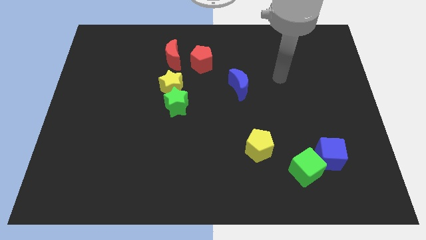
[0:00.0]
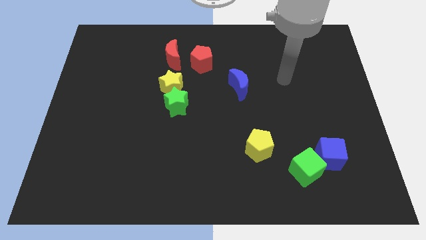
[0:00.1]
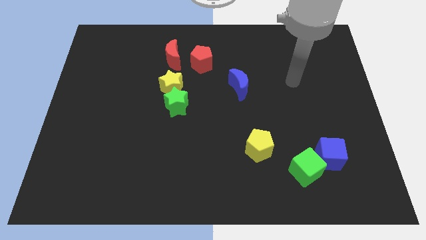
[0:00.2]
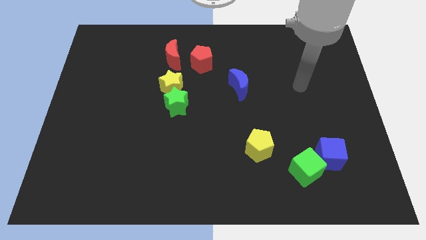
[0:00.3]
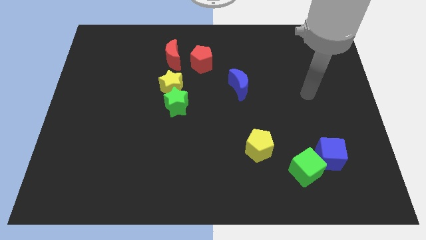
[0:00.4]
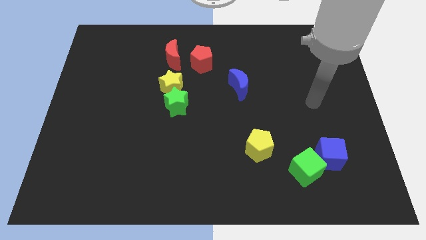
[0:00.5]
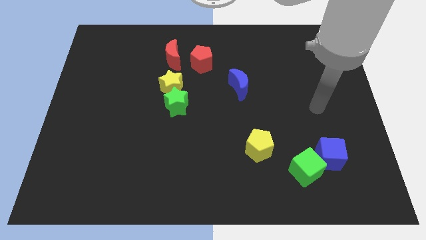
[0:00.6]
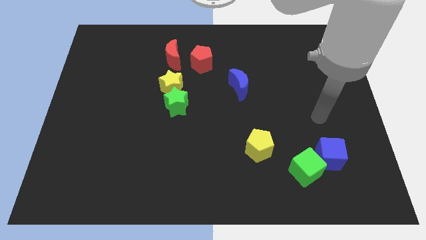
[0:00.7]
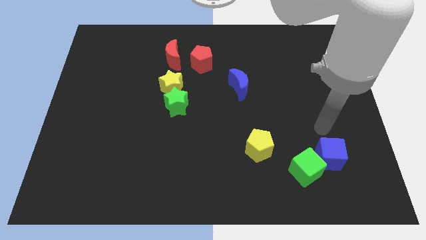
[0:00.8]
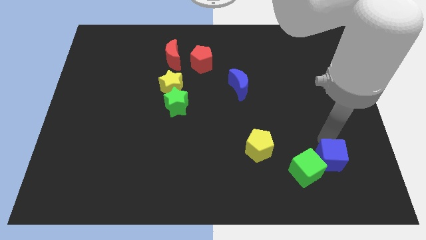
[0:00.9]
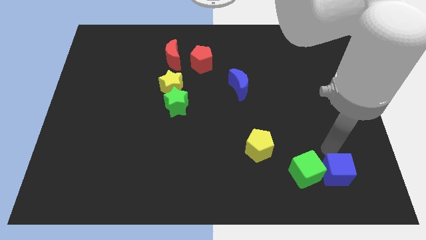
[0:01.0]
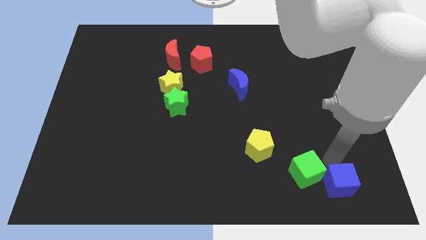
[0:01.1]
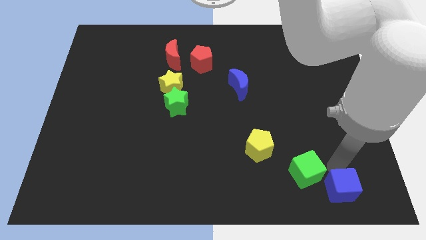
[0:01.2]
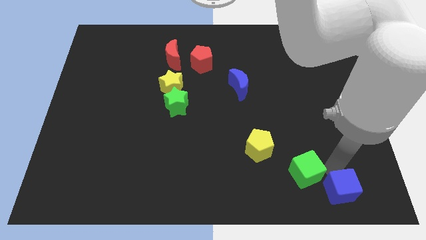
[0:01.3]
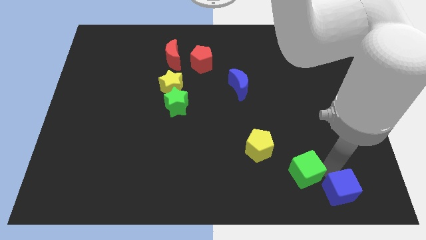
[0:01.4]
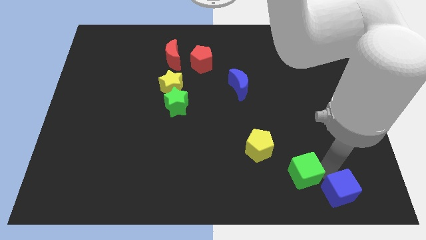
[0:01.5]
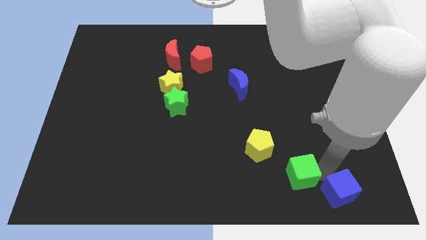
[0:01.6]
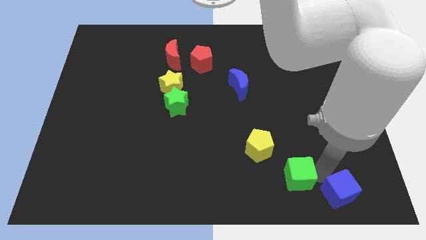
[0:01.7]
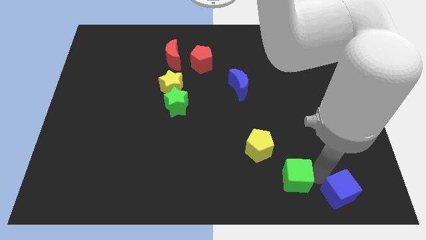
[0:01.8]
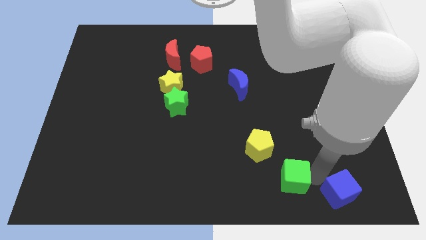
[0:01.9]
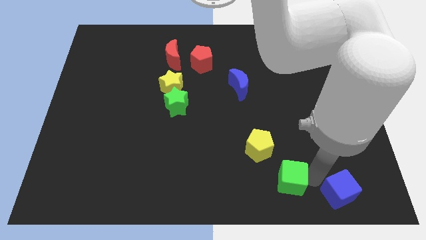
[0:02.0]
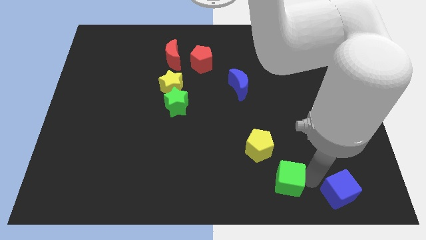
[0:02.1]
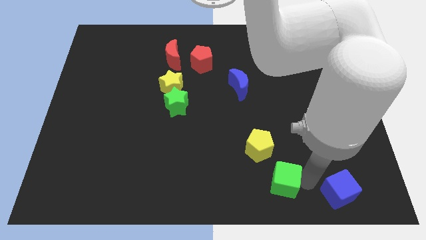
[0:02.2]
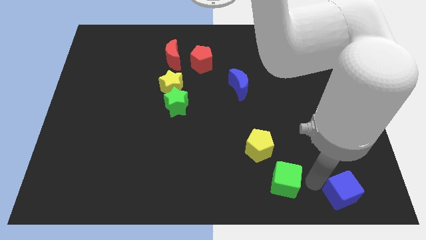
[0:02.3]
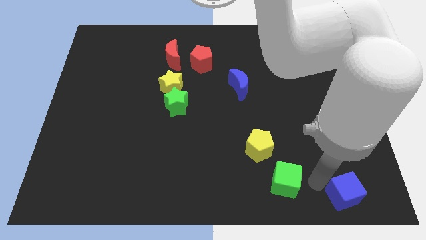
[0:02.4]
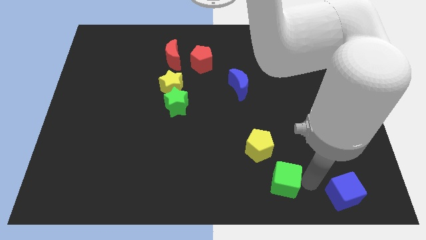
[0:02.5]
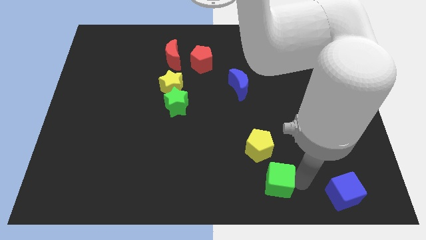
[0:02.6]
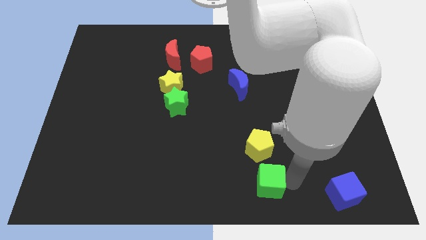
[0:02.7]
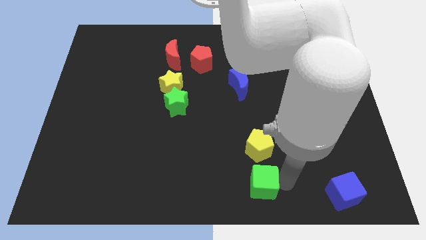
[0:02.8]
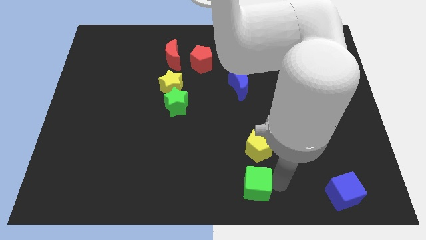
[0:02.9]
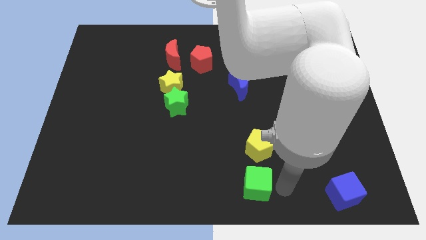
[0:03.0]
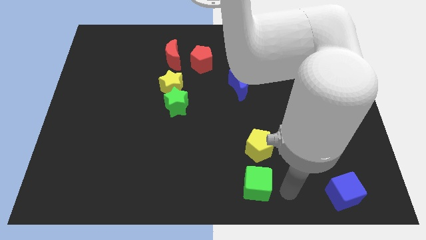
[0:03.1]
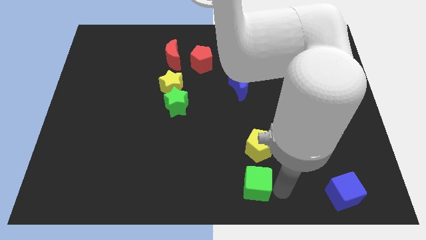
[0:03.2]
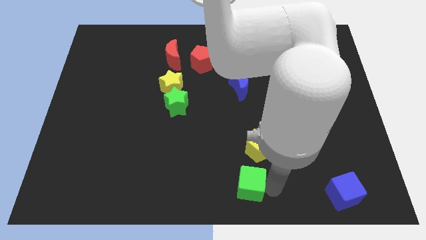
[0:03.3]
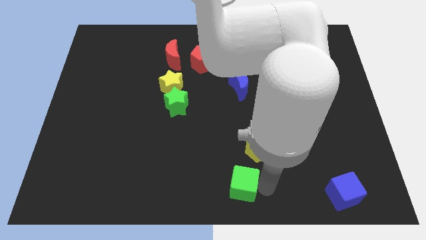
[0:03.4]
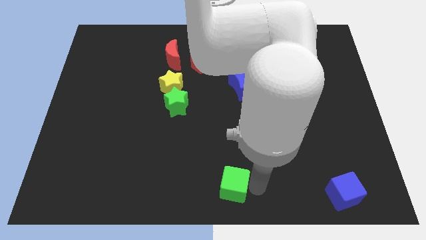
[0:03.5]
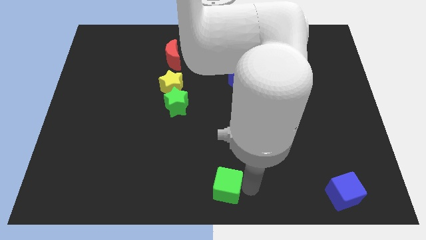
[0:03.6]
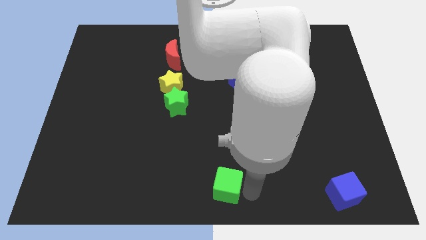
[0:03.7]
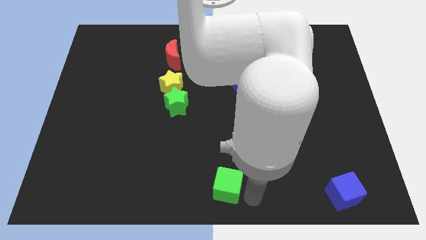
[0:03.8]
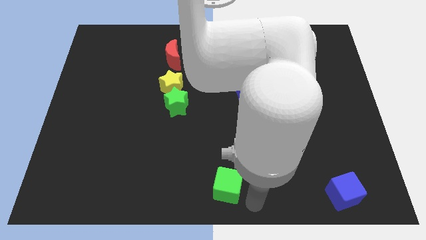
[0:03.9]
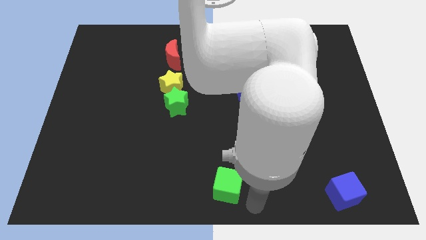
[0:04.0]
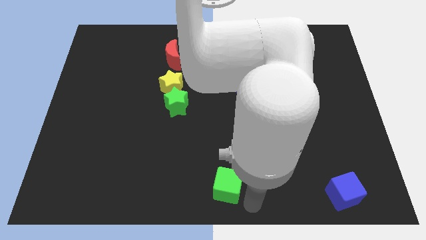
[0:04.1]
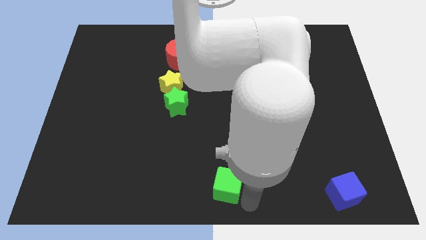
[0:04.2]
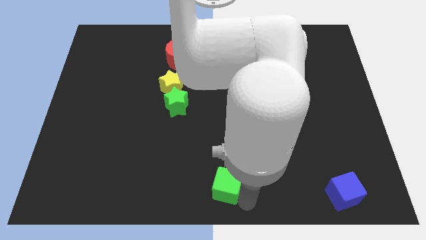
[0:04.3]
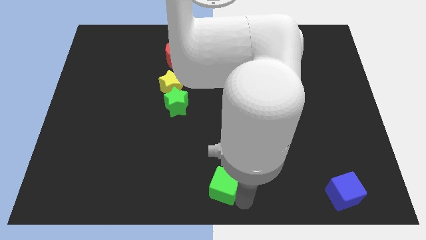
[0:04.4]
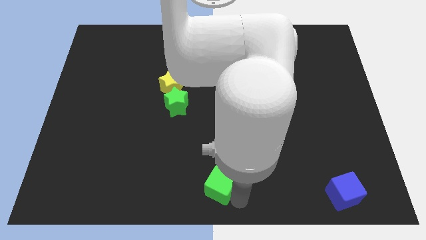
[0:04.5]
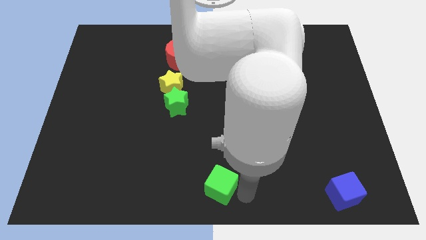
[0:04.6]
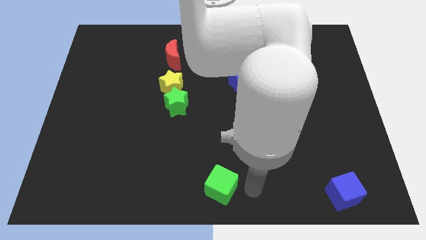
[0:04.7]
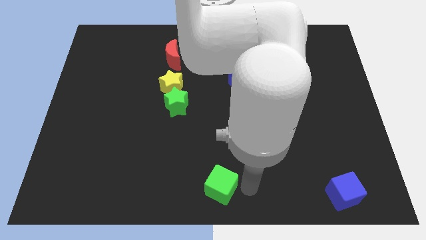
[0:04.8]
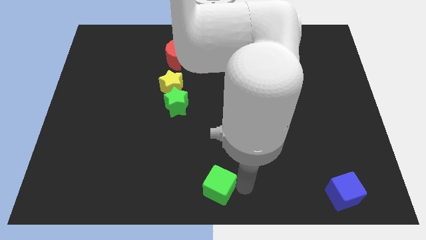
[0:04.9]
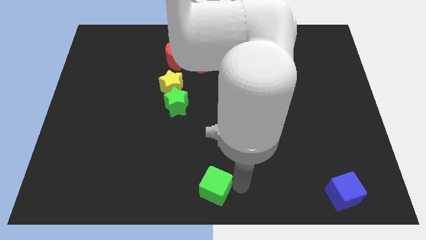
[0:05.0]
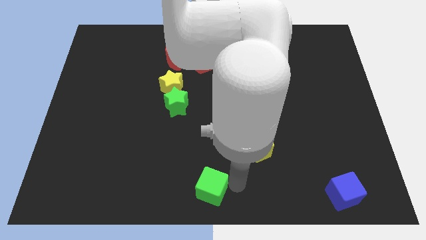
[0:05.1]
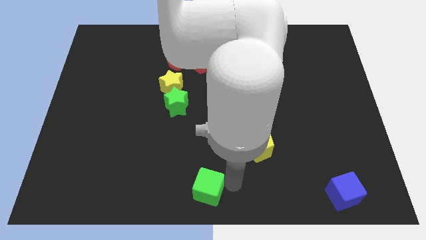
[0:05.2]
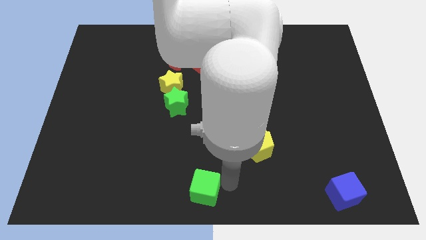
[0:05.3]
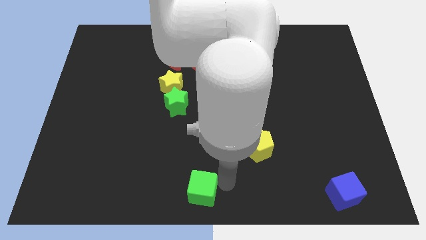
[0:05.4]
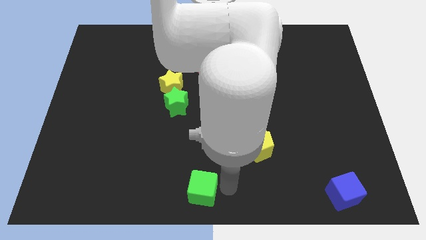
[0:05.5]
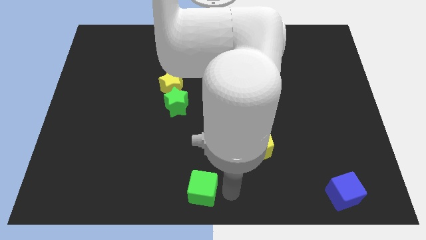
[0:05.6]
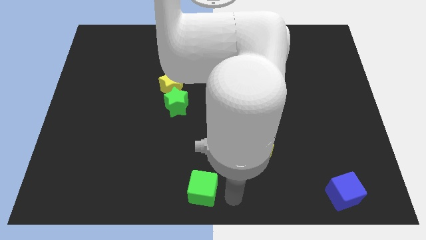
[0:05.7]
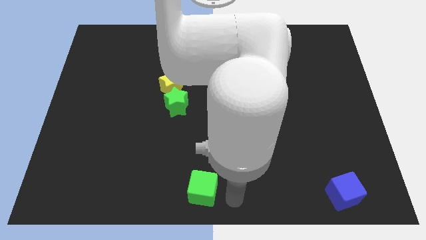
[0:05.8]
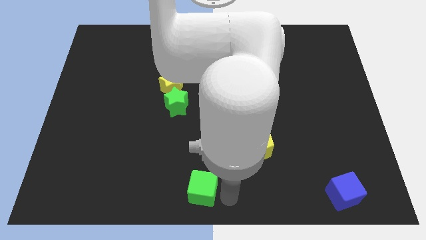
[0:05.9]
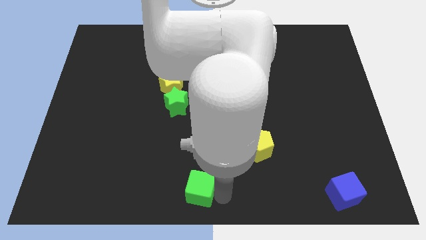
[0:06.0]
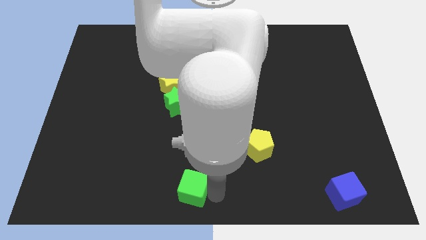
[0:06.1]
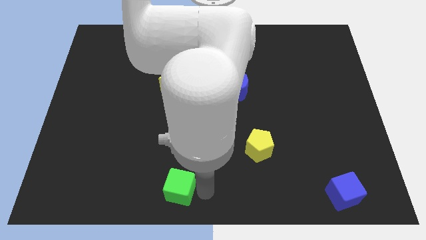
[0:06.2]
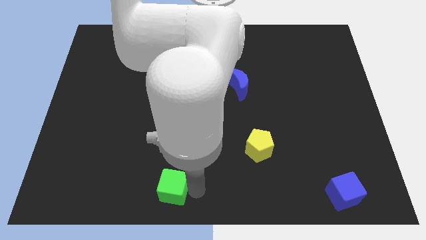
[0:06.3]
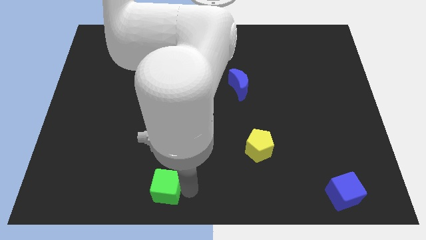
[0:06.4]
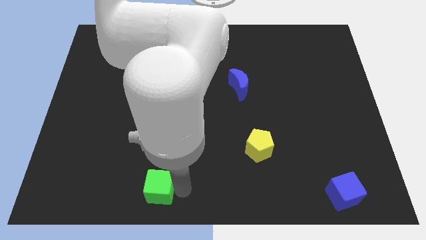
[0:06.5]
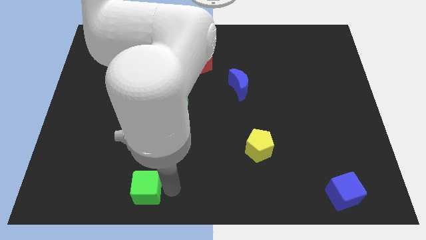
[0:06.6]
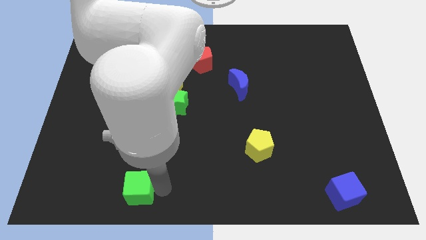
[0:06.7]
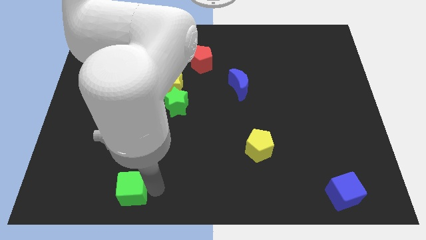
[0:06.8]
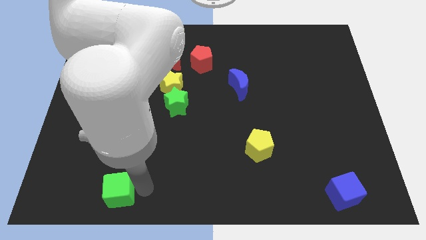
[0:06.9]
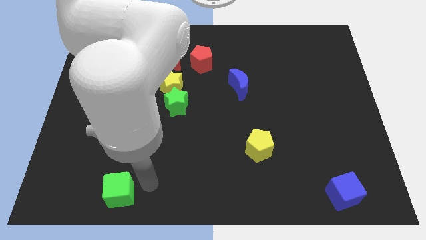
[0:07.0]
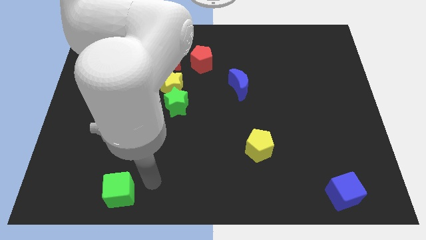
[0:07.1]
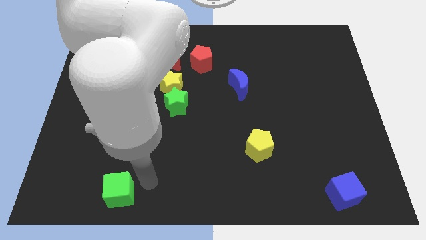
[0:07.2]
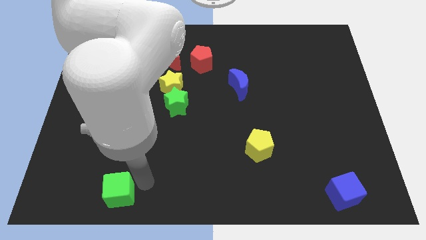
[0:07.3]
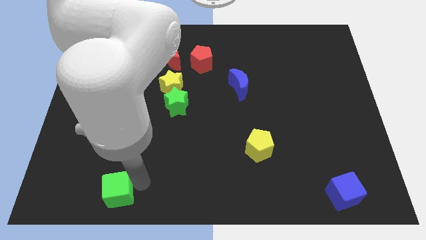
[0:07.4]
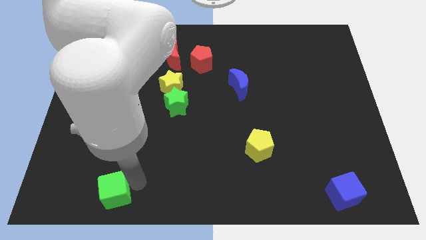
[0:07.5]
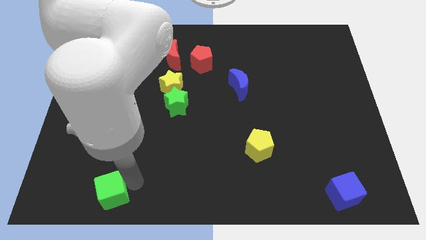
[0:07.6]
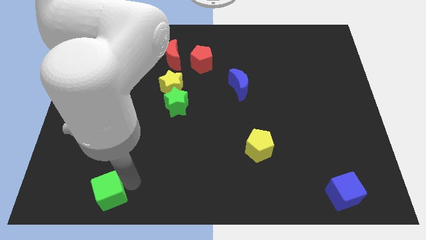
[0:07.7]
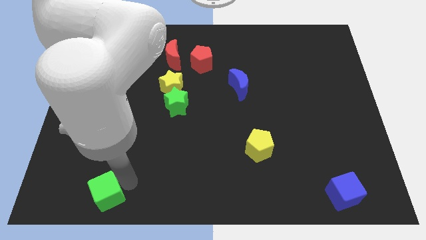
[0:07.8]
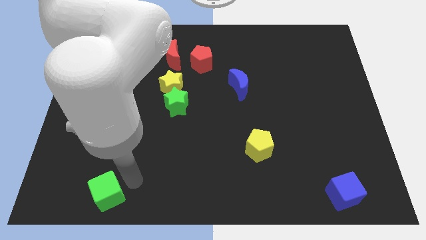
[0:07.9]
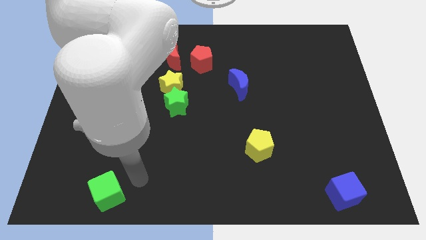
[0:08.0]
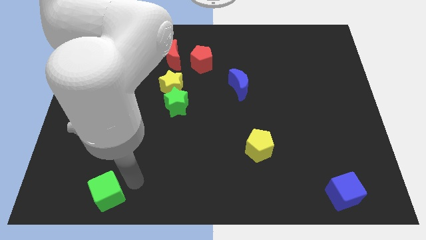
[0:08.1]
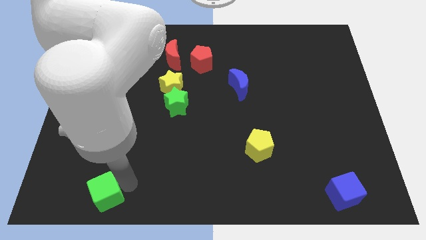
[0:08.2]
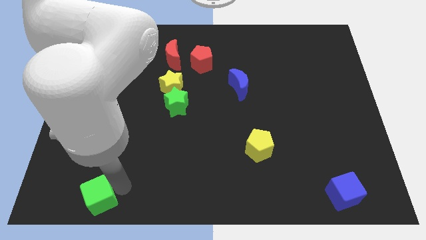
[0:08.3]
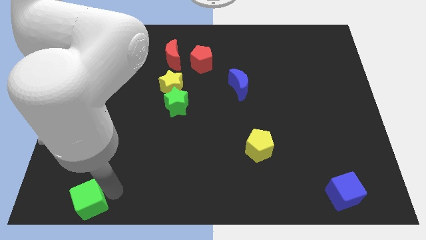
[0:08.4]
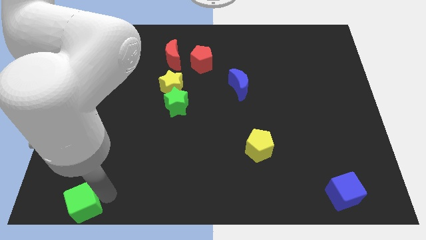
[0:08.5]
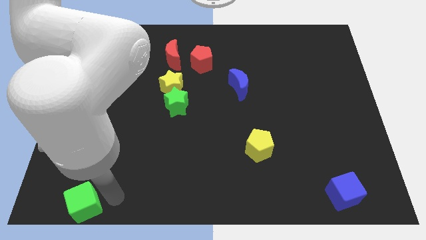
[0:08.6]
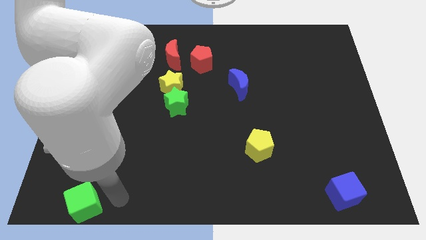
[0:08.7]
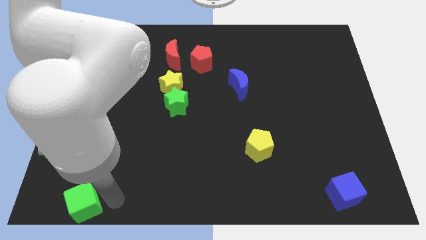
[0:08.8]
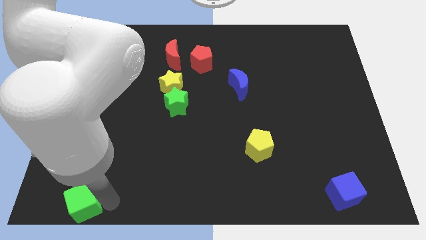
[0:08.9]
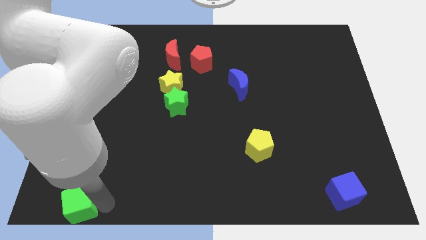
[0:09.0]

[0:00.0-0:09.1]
push the green cube to the bottom left corner
